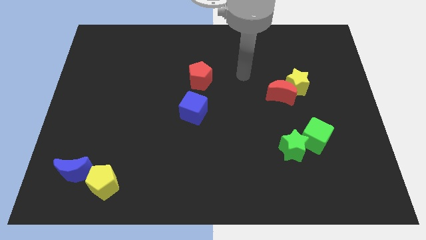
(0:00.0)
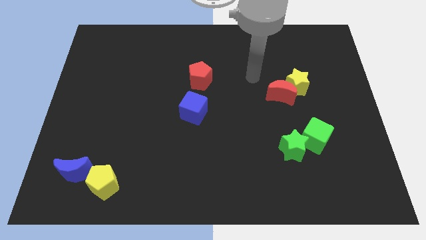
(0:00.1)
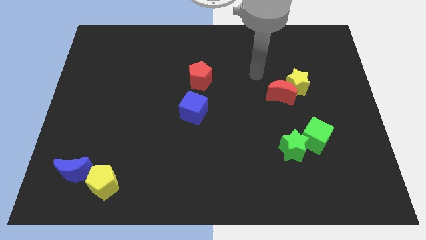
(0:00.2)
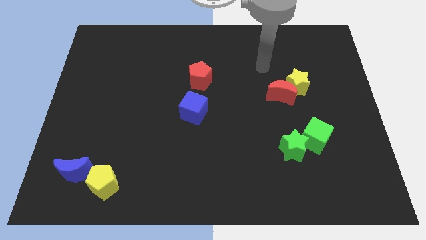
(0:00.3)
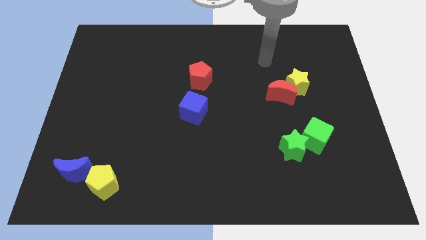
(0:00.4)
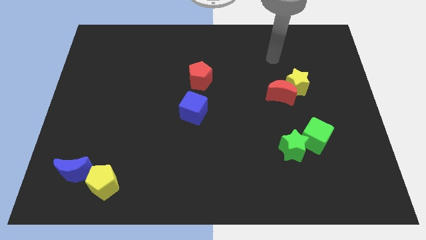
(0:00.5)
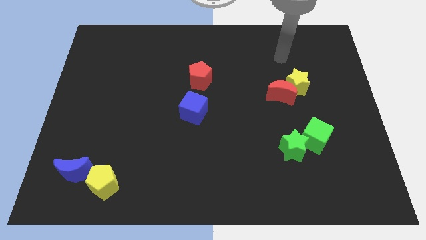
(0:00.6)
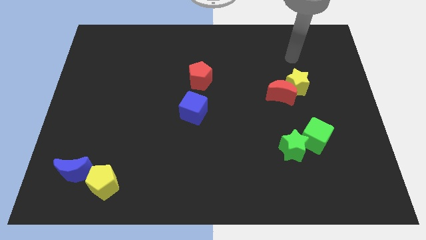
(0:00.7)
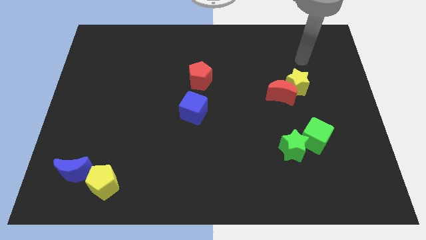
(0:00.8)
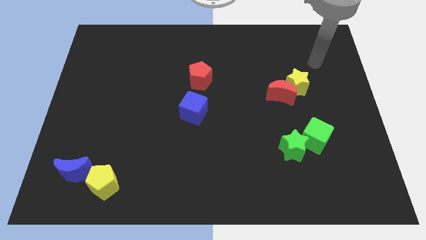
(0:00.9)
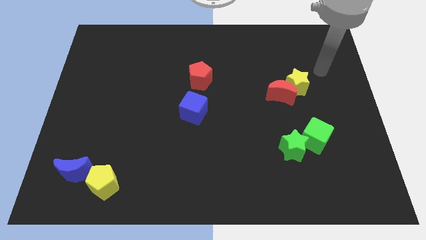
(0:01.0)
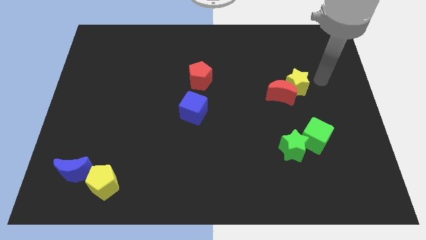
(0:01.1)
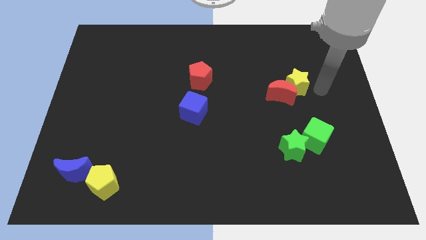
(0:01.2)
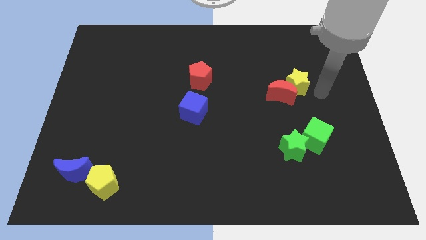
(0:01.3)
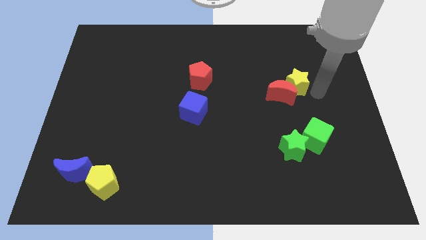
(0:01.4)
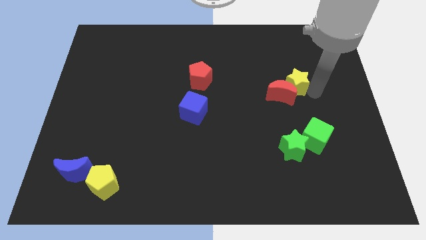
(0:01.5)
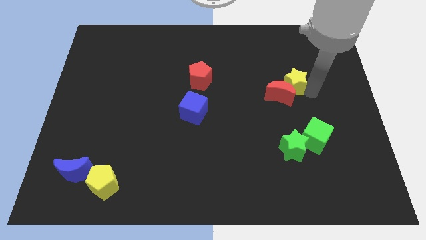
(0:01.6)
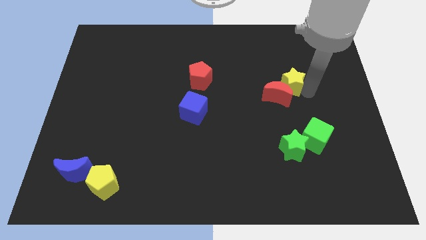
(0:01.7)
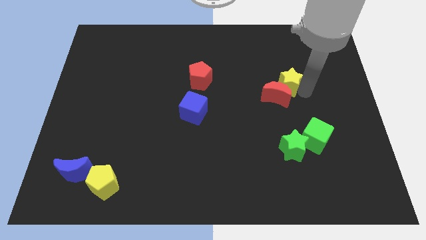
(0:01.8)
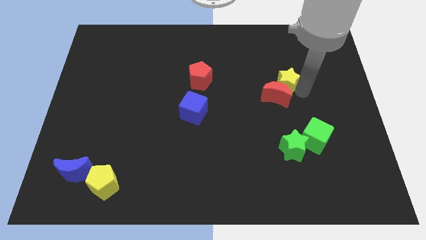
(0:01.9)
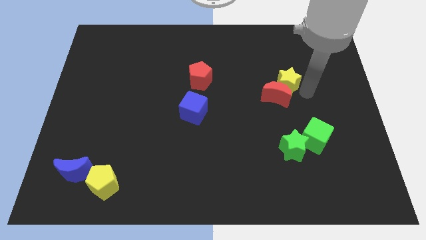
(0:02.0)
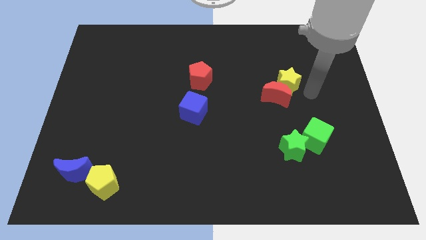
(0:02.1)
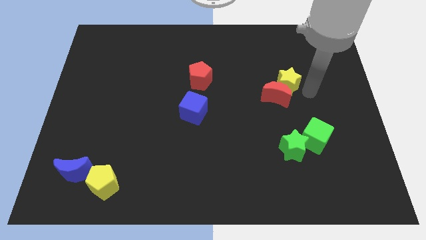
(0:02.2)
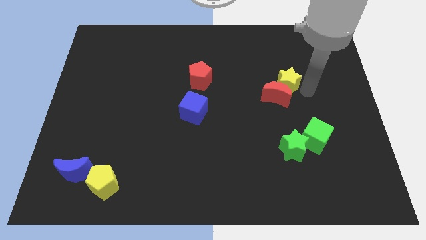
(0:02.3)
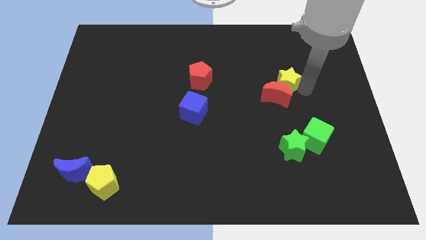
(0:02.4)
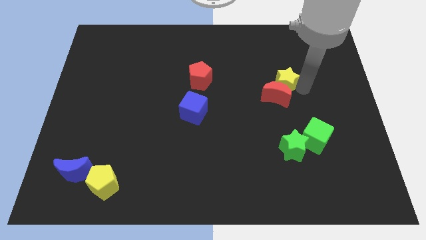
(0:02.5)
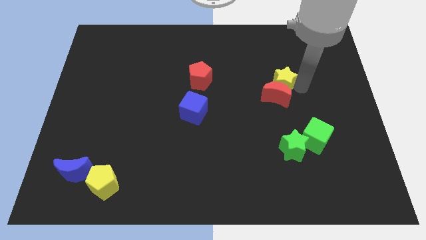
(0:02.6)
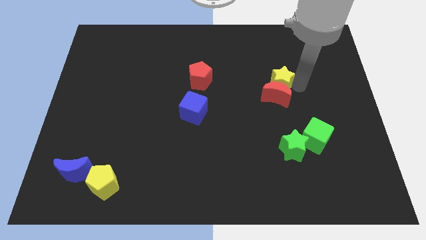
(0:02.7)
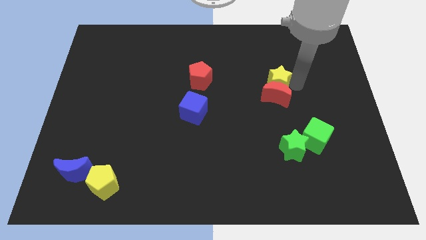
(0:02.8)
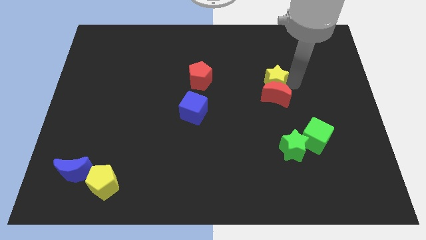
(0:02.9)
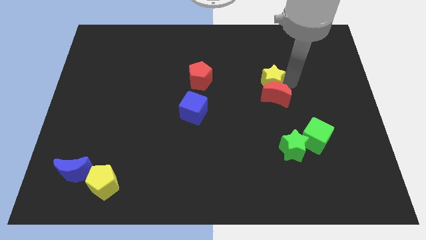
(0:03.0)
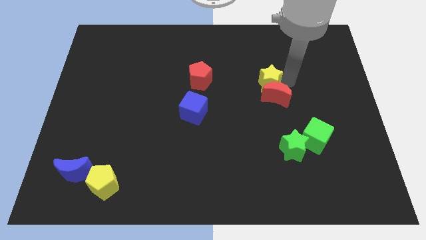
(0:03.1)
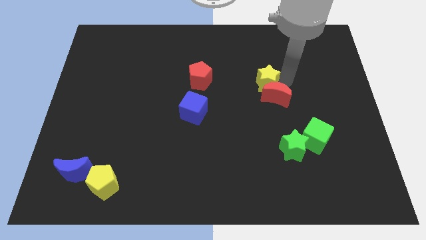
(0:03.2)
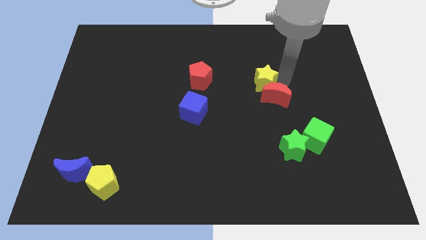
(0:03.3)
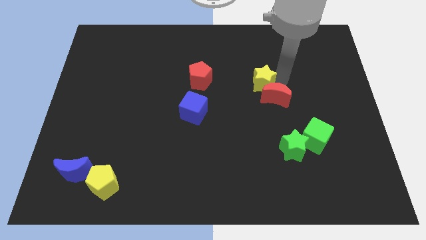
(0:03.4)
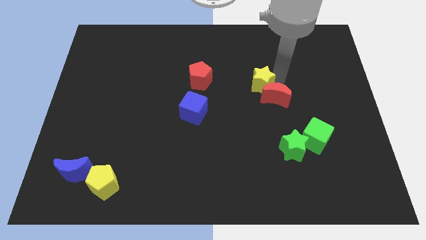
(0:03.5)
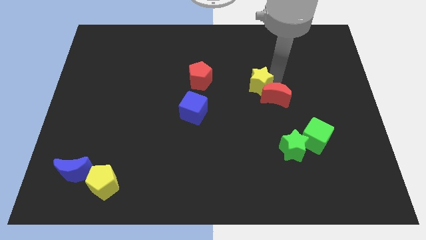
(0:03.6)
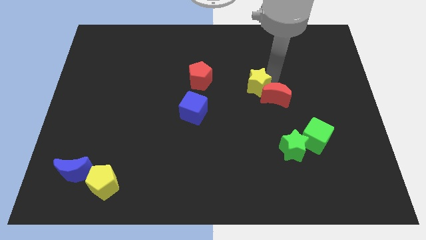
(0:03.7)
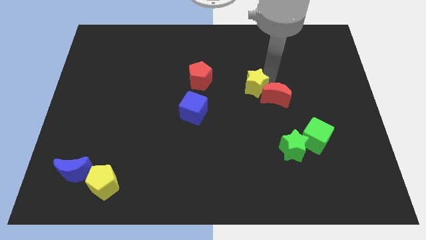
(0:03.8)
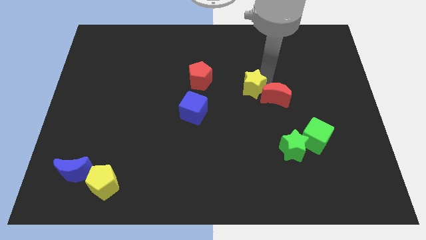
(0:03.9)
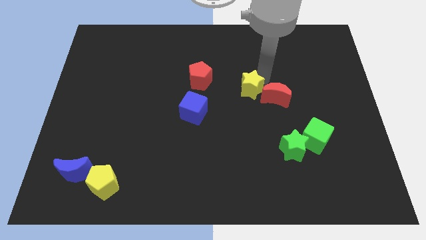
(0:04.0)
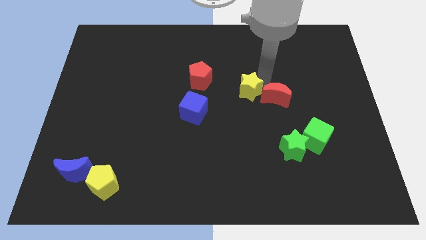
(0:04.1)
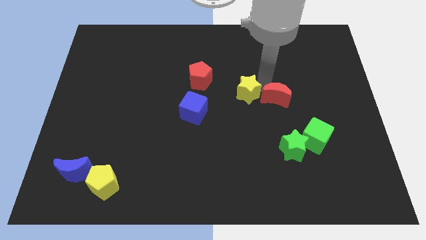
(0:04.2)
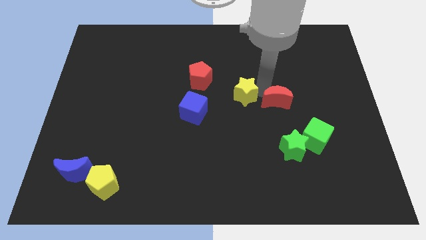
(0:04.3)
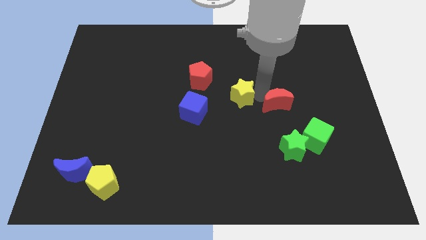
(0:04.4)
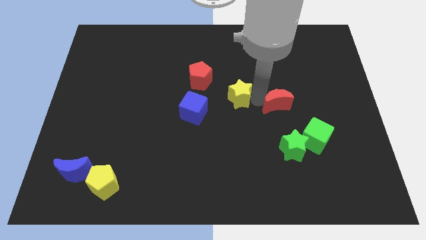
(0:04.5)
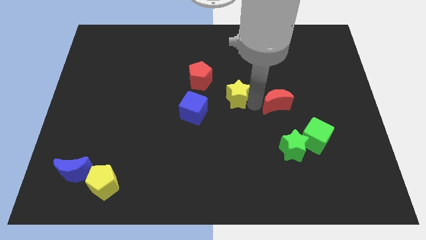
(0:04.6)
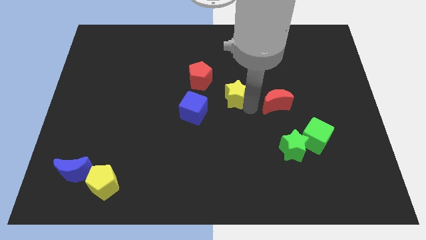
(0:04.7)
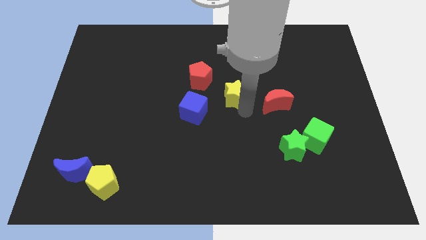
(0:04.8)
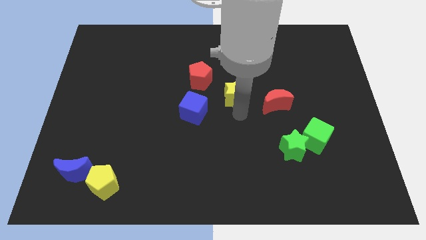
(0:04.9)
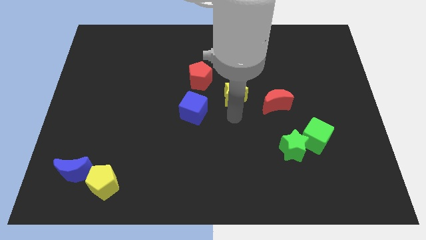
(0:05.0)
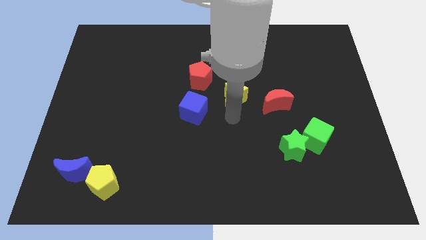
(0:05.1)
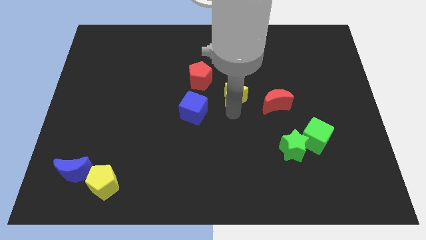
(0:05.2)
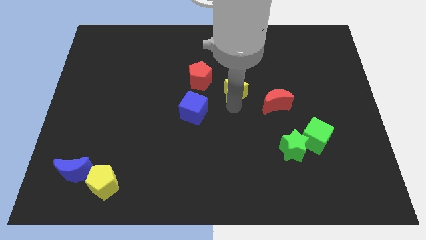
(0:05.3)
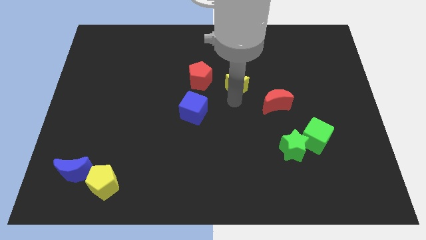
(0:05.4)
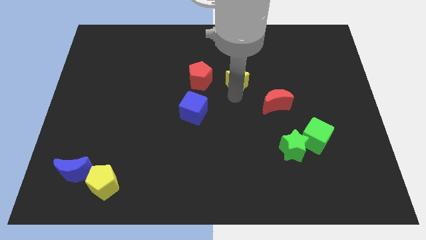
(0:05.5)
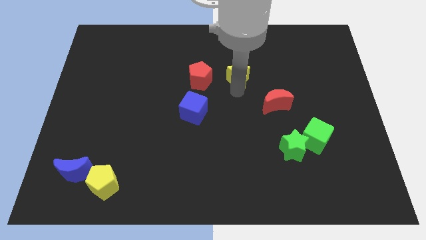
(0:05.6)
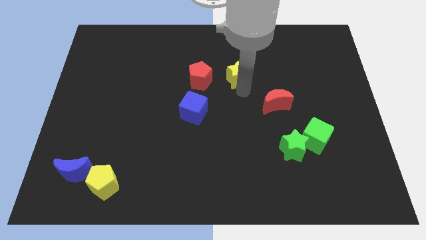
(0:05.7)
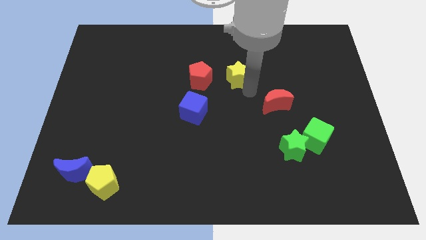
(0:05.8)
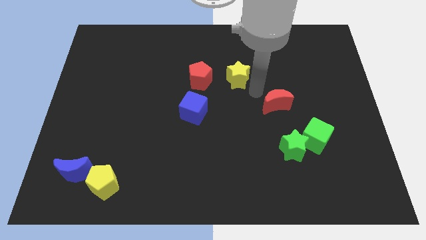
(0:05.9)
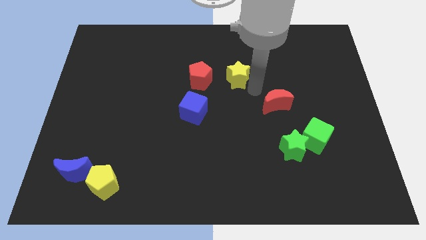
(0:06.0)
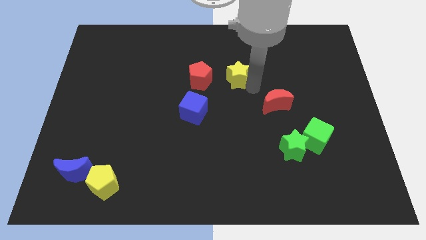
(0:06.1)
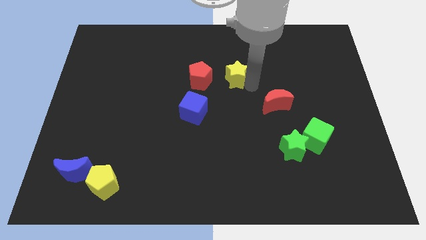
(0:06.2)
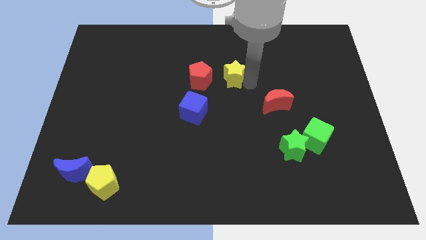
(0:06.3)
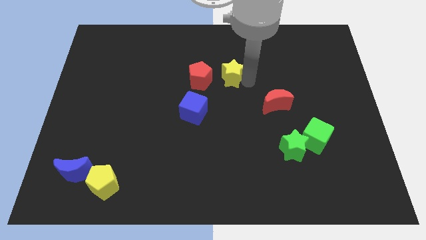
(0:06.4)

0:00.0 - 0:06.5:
put the yellow star to the top right side of the red pentagon

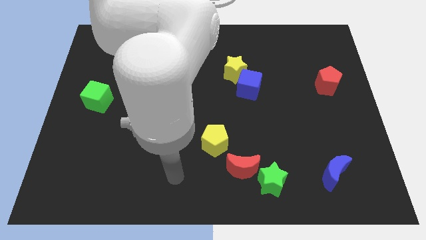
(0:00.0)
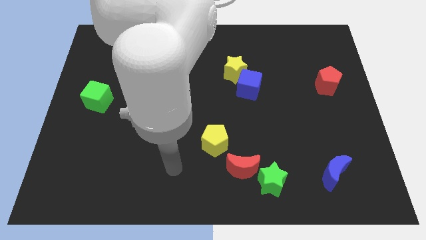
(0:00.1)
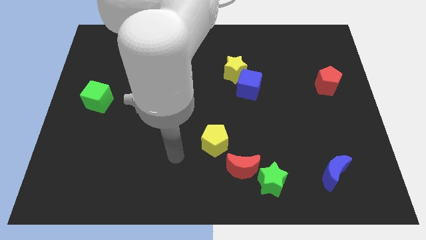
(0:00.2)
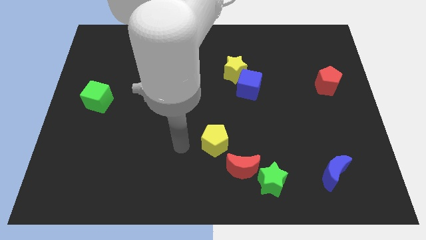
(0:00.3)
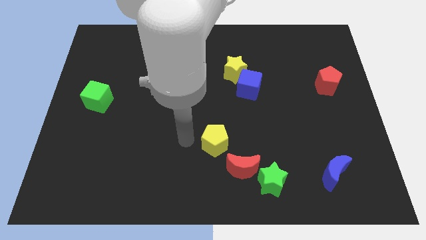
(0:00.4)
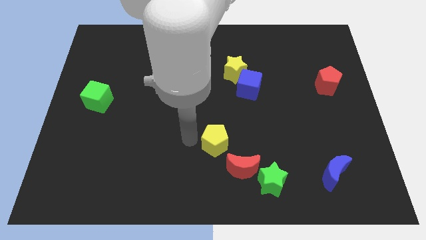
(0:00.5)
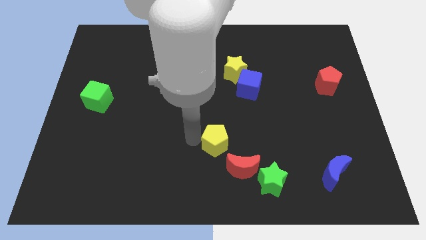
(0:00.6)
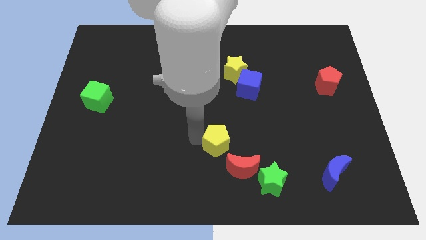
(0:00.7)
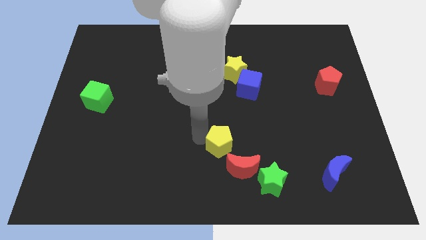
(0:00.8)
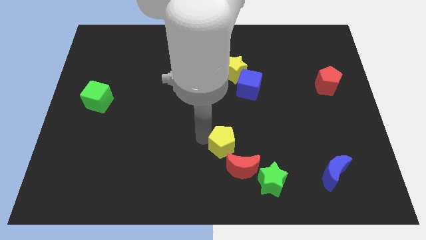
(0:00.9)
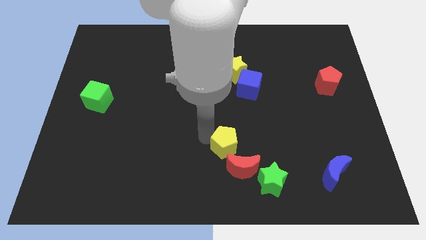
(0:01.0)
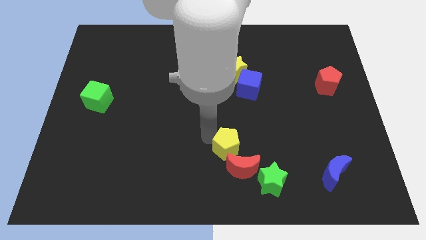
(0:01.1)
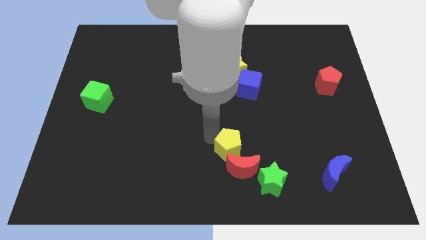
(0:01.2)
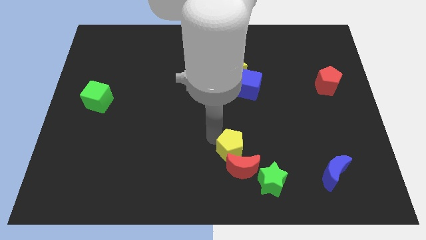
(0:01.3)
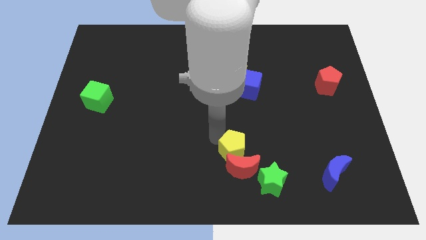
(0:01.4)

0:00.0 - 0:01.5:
put the yellow pentagon to the top right of the red moon
